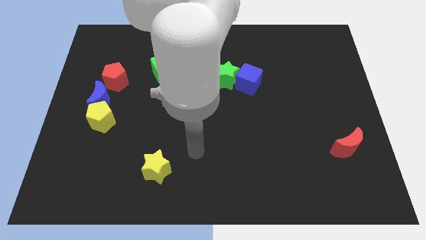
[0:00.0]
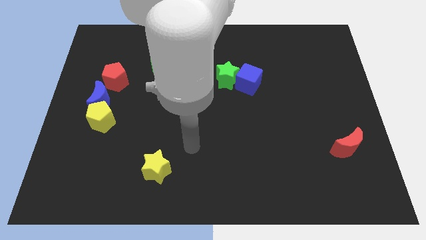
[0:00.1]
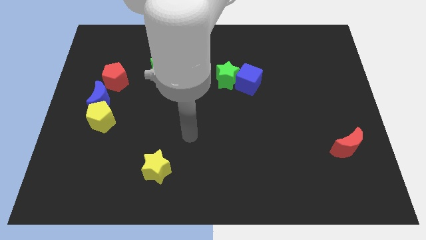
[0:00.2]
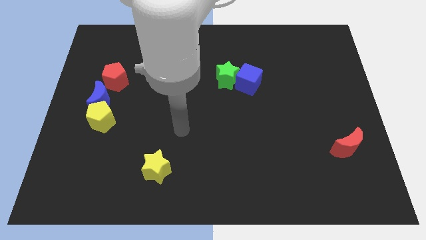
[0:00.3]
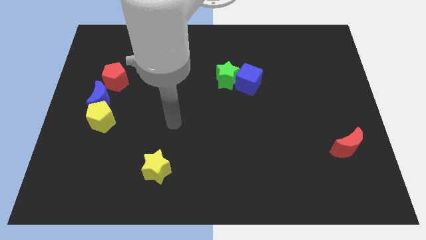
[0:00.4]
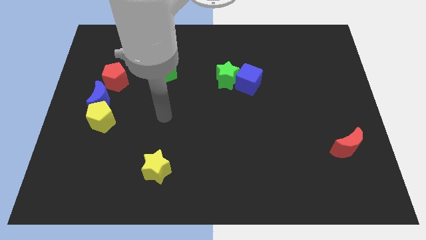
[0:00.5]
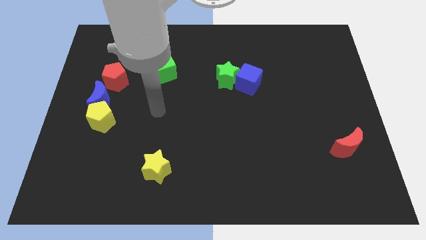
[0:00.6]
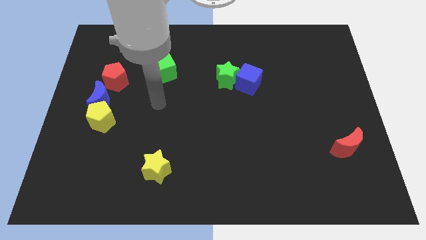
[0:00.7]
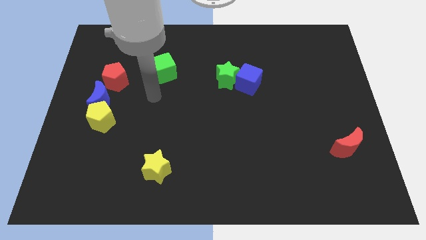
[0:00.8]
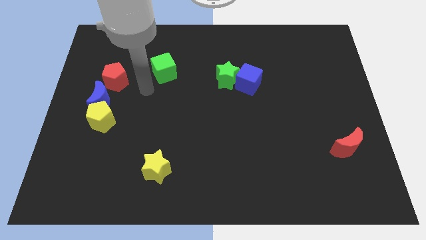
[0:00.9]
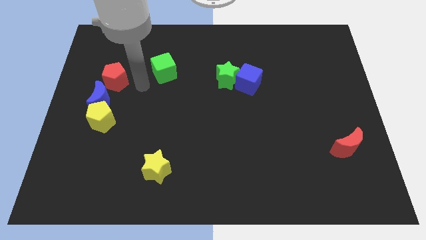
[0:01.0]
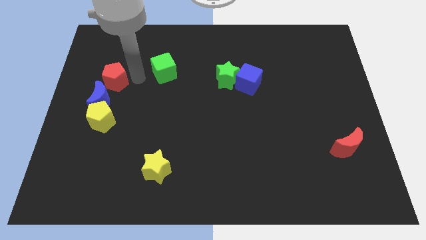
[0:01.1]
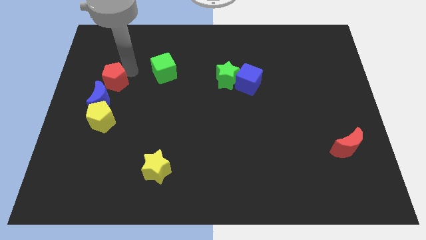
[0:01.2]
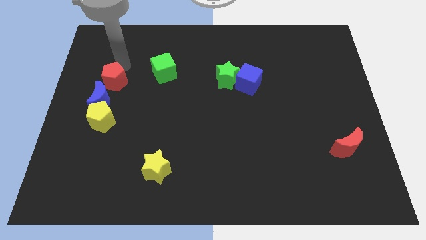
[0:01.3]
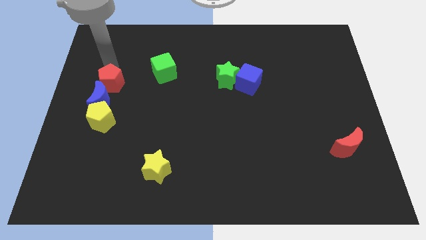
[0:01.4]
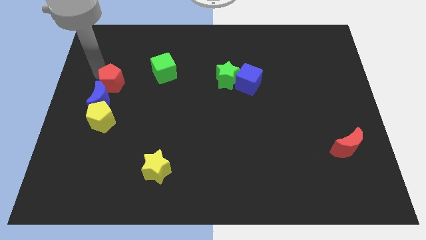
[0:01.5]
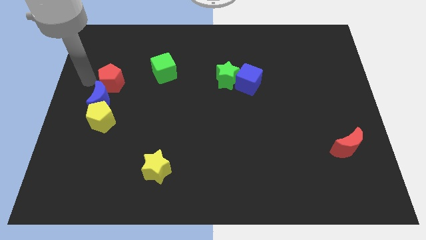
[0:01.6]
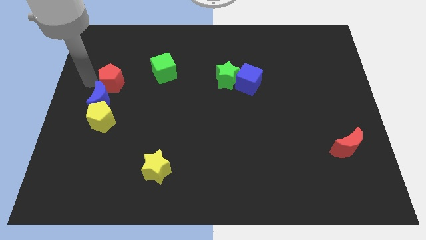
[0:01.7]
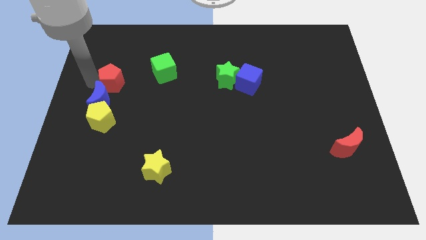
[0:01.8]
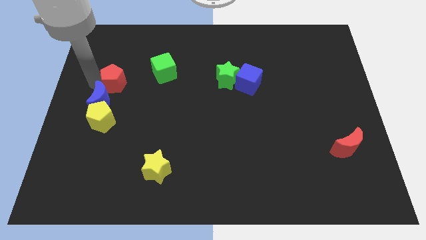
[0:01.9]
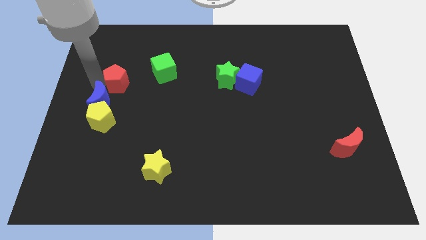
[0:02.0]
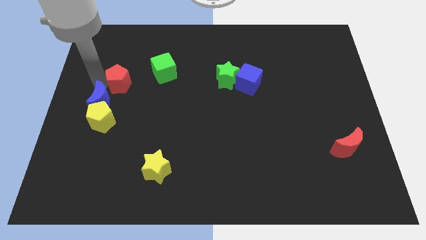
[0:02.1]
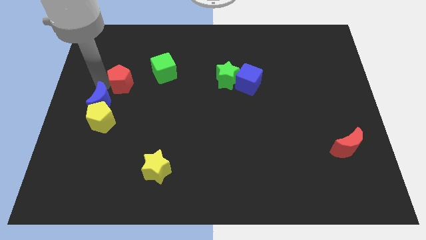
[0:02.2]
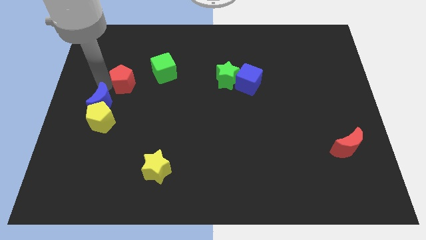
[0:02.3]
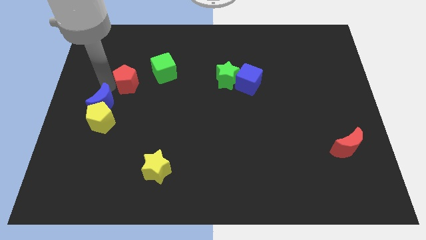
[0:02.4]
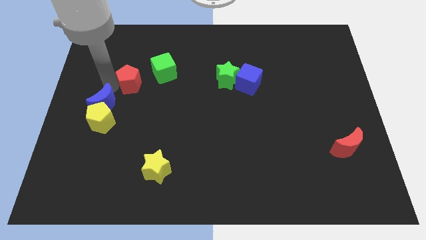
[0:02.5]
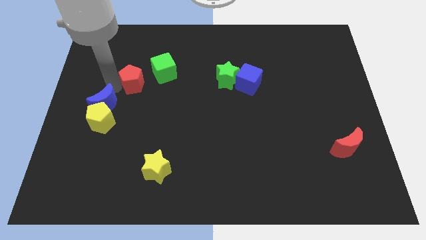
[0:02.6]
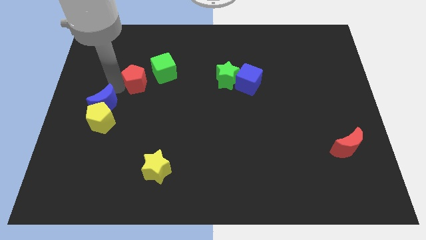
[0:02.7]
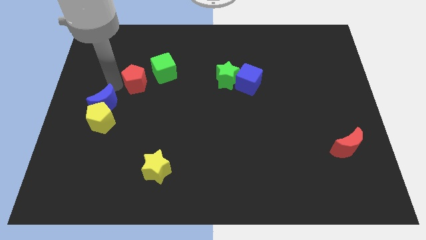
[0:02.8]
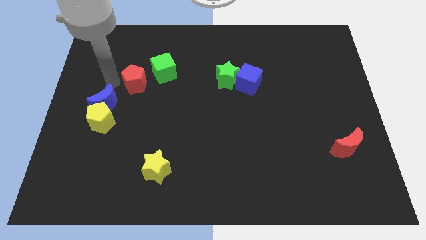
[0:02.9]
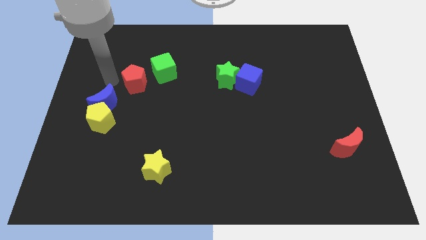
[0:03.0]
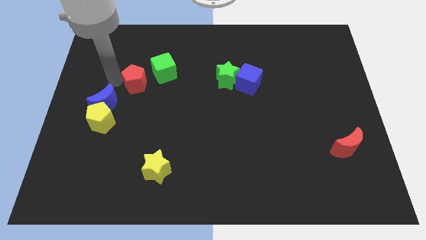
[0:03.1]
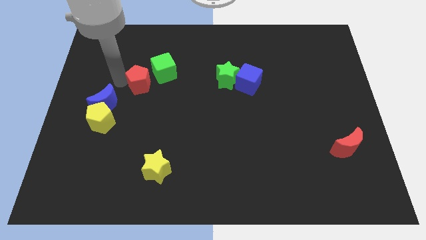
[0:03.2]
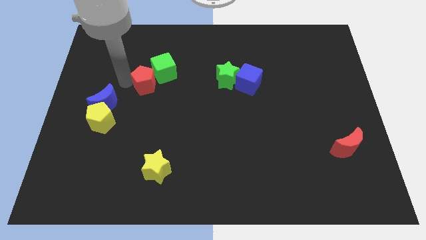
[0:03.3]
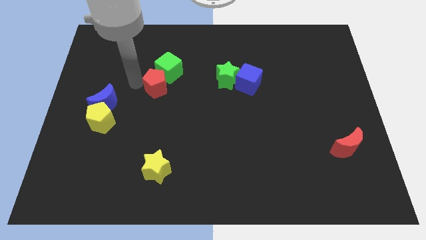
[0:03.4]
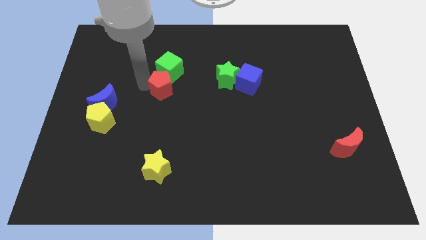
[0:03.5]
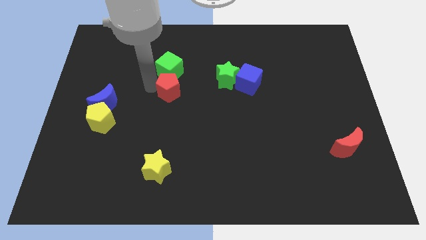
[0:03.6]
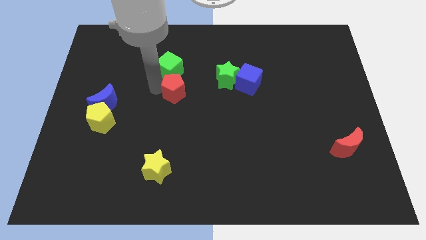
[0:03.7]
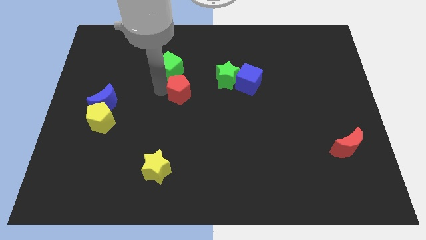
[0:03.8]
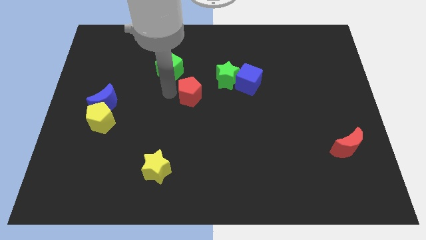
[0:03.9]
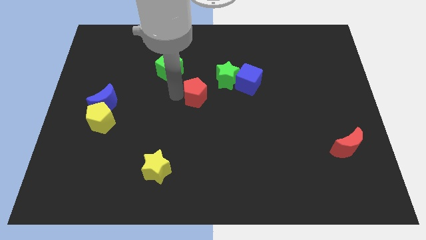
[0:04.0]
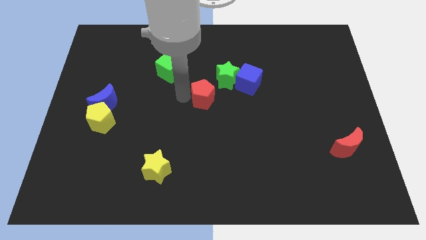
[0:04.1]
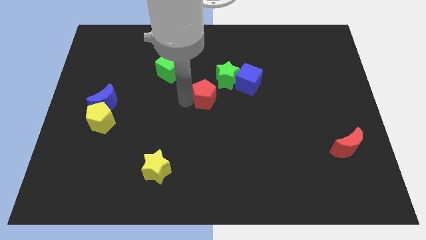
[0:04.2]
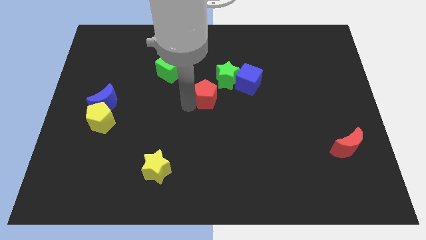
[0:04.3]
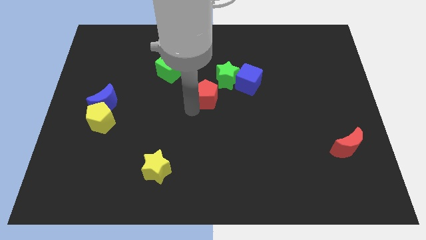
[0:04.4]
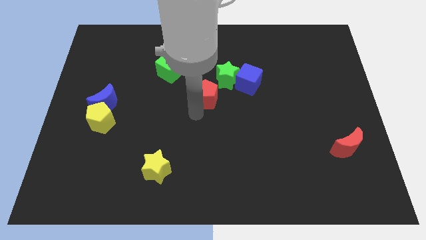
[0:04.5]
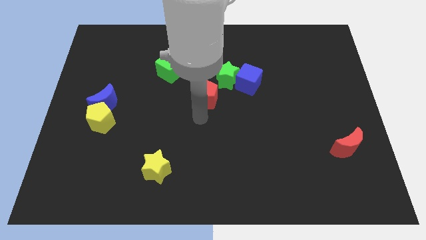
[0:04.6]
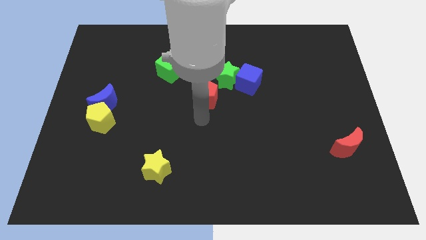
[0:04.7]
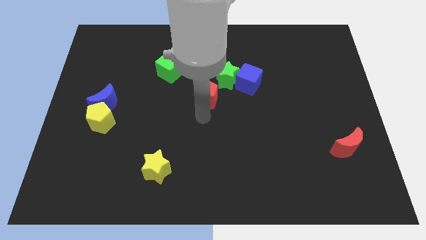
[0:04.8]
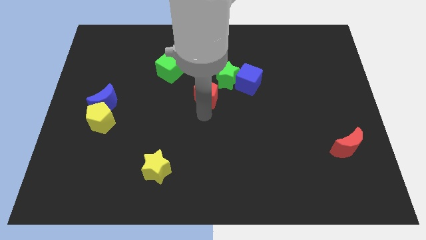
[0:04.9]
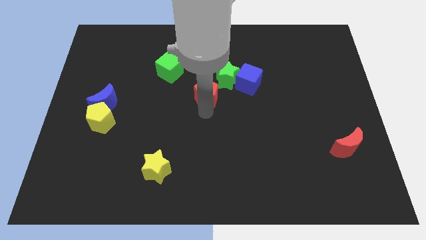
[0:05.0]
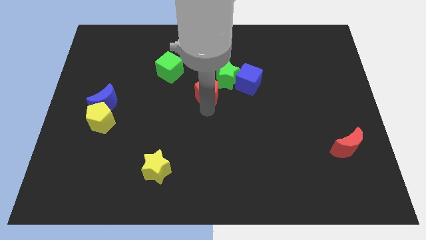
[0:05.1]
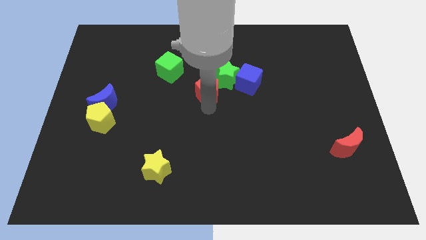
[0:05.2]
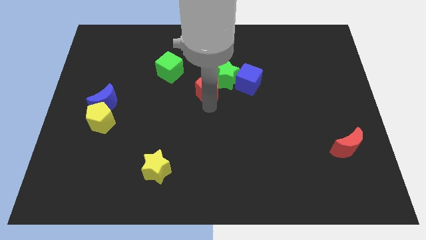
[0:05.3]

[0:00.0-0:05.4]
move the red pentagon next to the green star

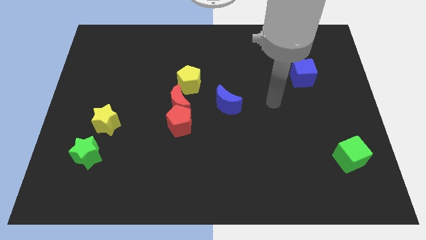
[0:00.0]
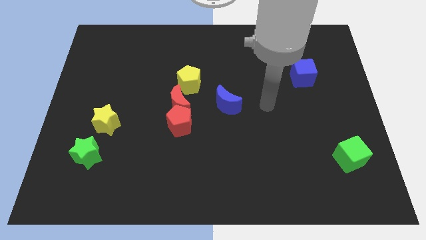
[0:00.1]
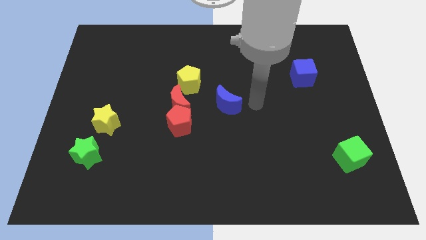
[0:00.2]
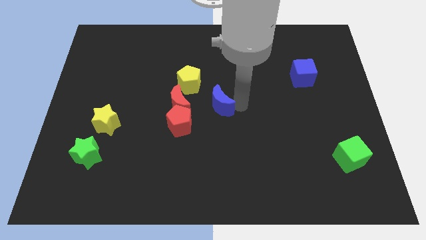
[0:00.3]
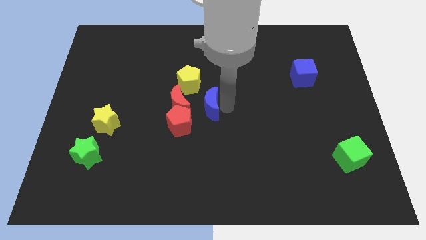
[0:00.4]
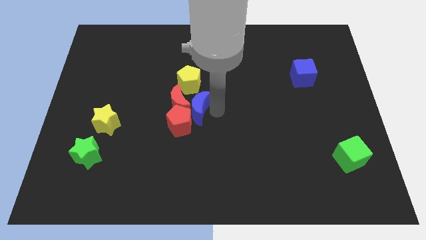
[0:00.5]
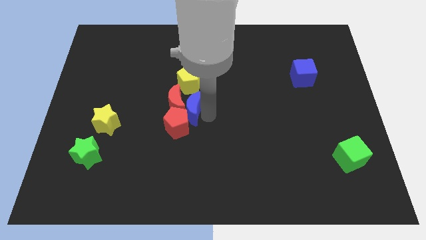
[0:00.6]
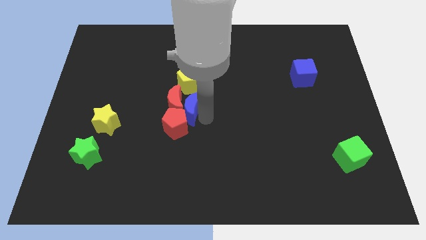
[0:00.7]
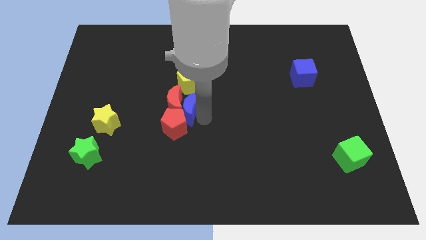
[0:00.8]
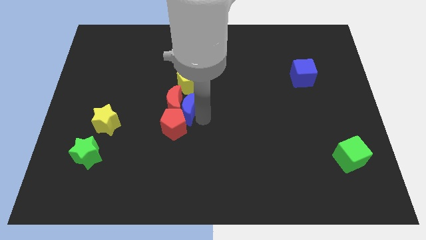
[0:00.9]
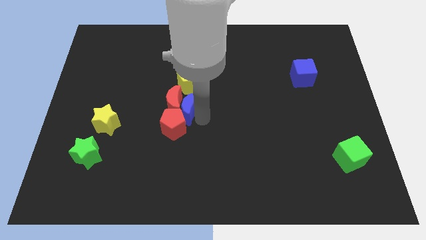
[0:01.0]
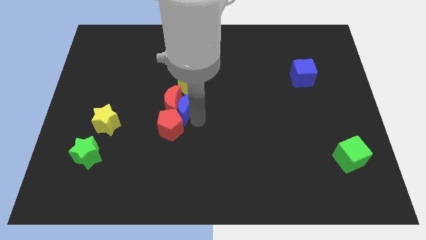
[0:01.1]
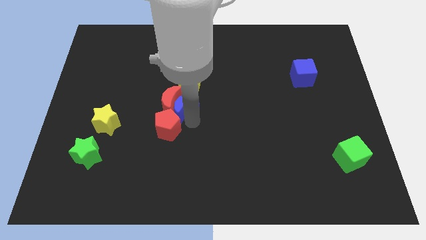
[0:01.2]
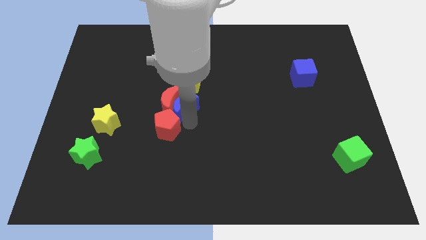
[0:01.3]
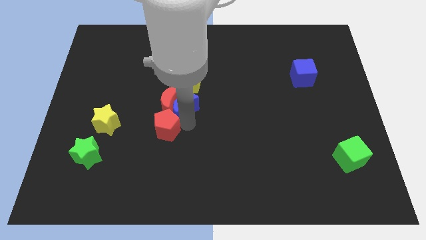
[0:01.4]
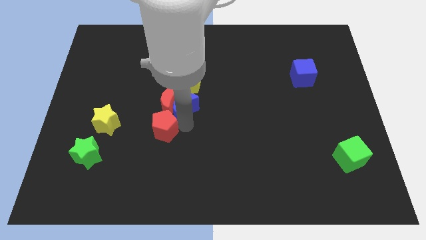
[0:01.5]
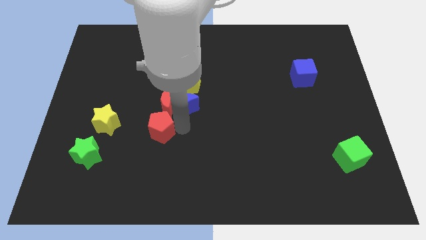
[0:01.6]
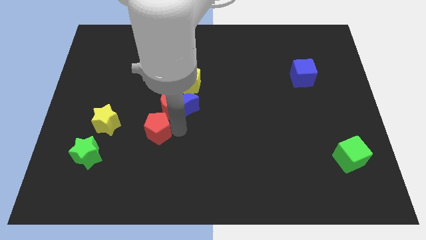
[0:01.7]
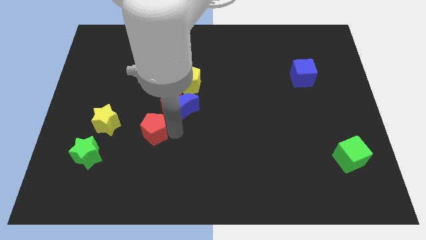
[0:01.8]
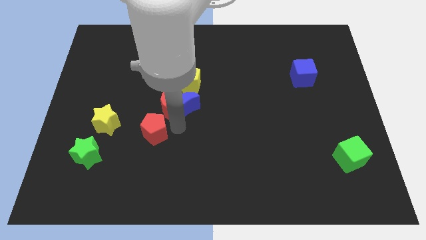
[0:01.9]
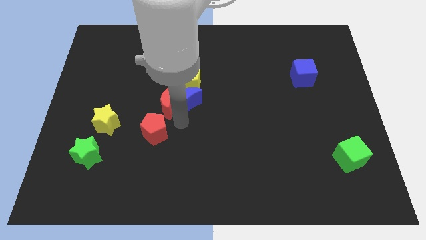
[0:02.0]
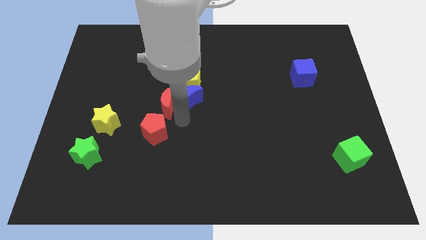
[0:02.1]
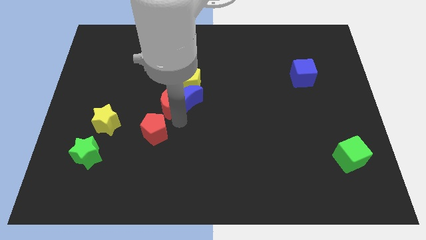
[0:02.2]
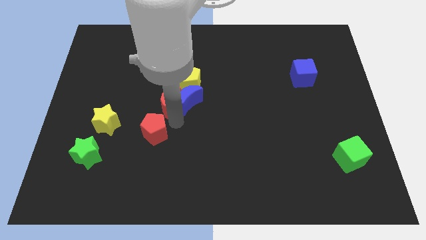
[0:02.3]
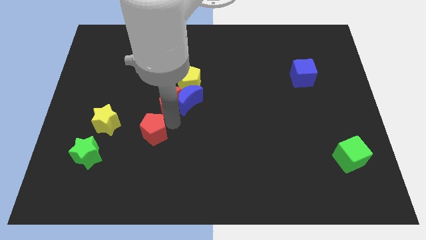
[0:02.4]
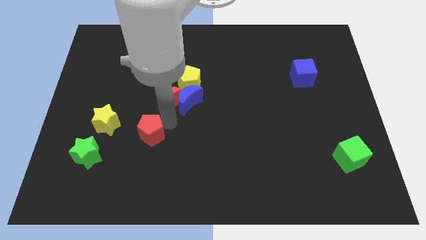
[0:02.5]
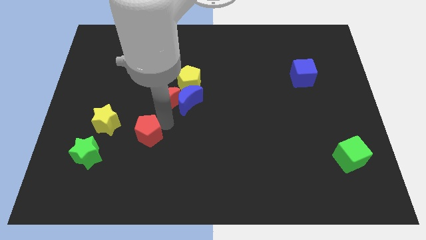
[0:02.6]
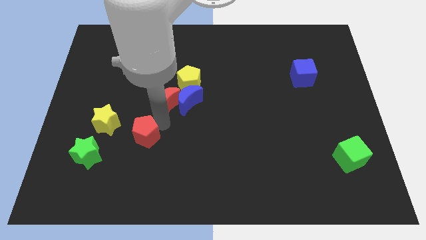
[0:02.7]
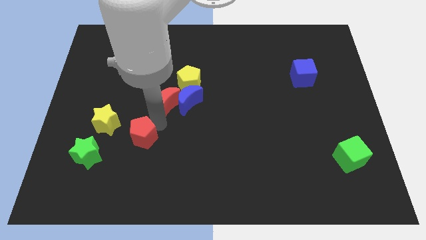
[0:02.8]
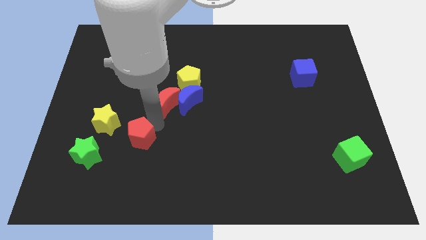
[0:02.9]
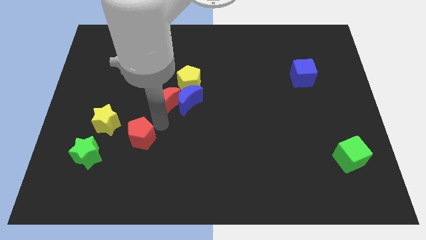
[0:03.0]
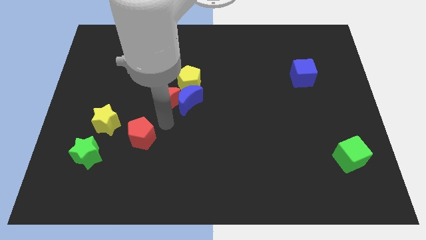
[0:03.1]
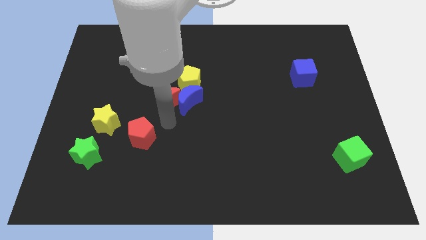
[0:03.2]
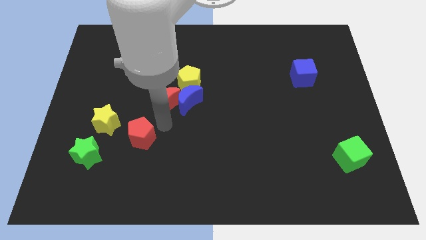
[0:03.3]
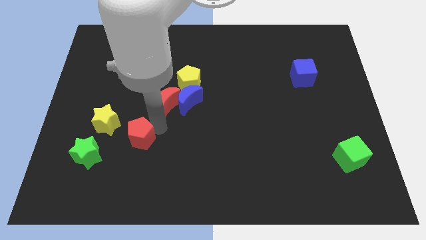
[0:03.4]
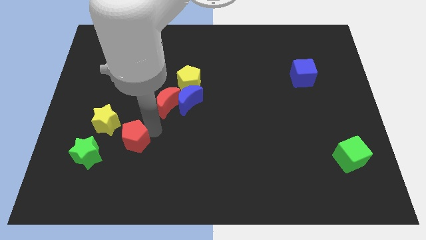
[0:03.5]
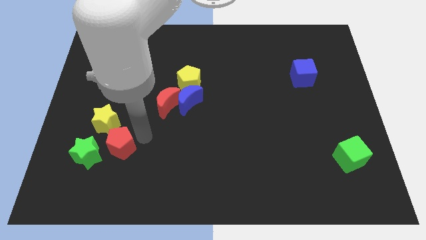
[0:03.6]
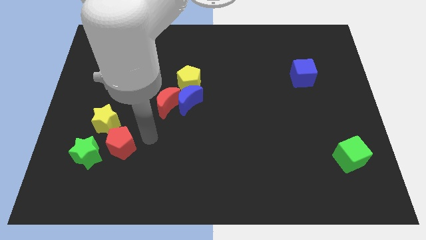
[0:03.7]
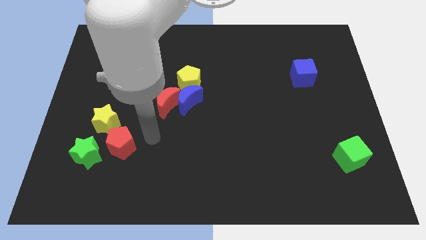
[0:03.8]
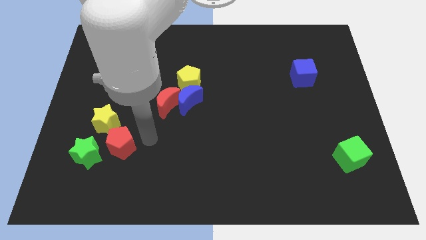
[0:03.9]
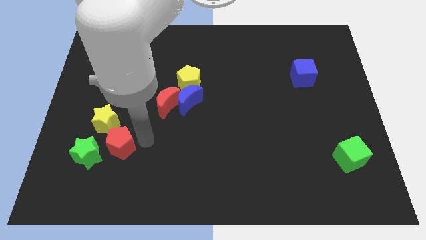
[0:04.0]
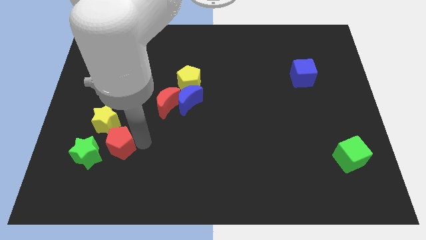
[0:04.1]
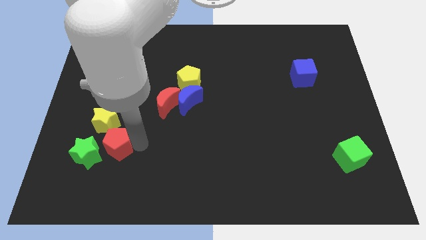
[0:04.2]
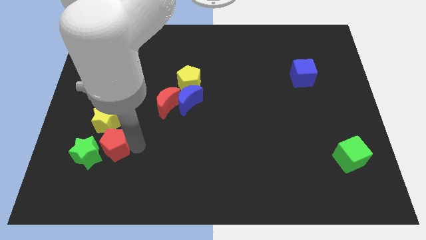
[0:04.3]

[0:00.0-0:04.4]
slide the red pentagon next to the green star
